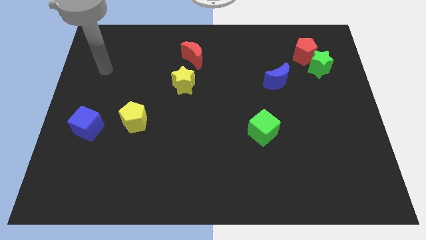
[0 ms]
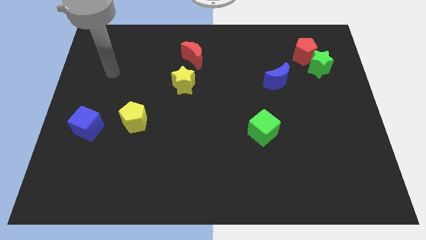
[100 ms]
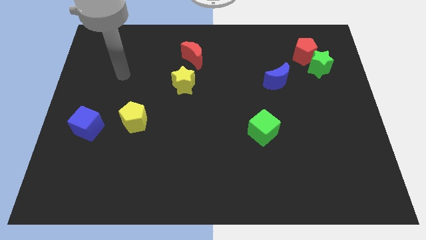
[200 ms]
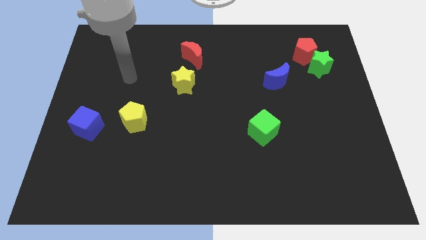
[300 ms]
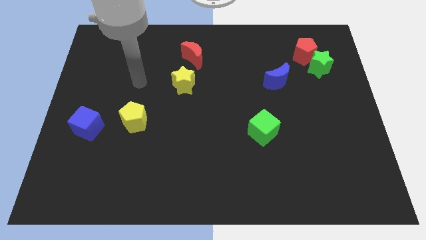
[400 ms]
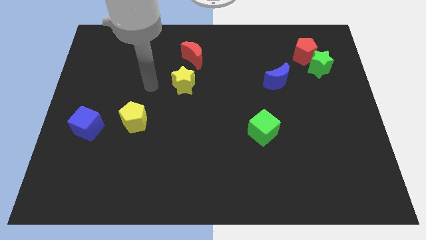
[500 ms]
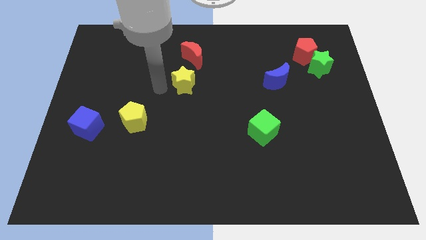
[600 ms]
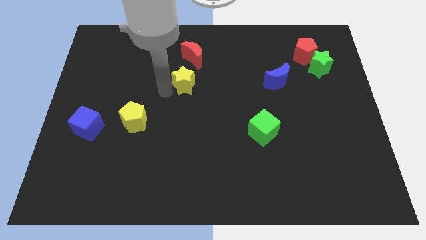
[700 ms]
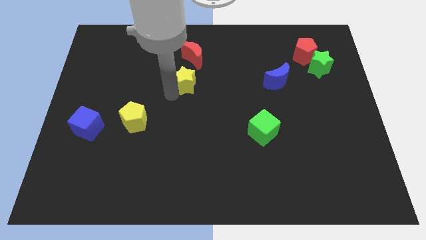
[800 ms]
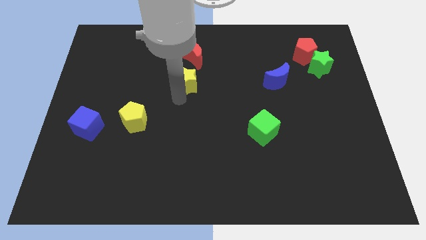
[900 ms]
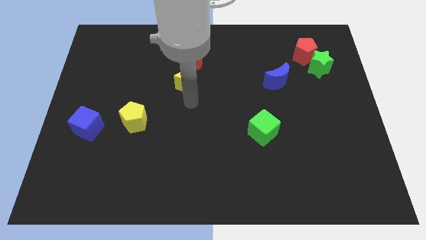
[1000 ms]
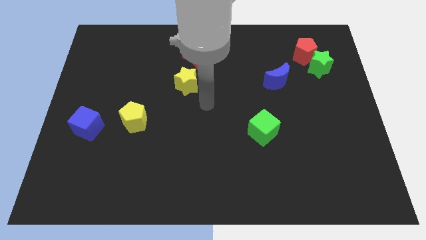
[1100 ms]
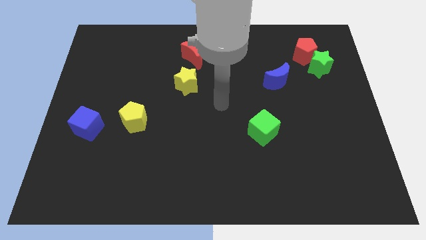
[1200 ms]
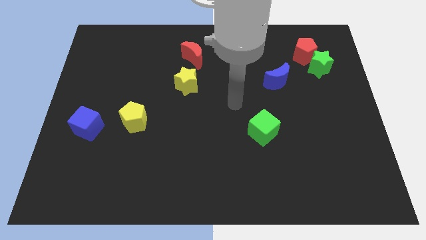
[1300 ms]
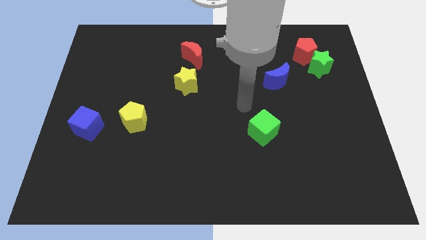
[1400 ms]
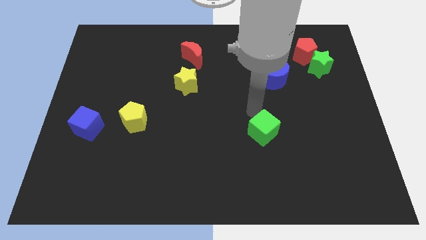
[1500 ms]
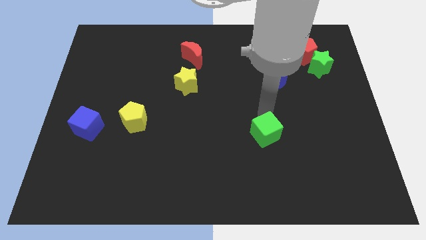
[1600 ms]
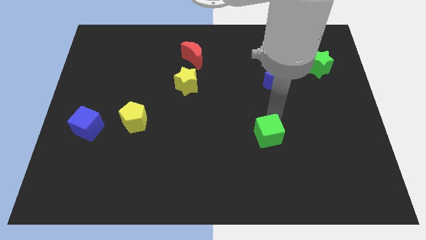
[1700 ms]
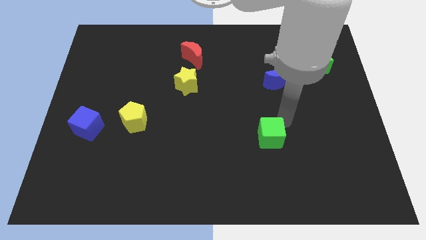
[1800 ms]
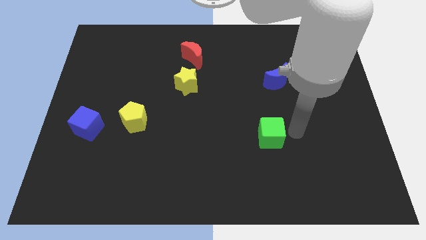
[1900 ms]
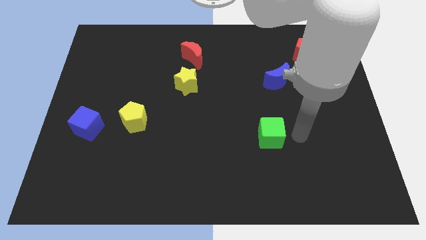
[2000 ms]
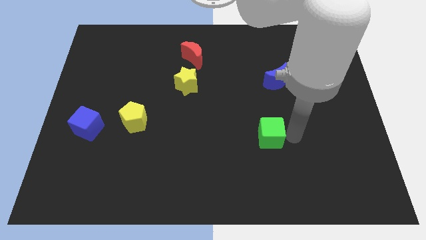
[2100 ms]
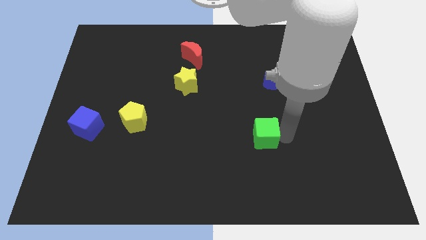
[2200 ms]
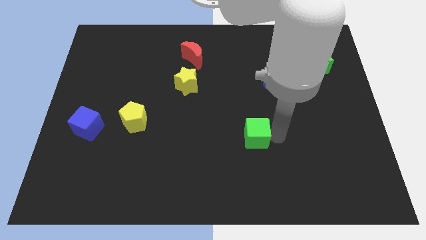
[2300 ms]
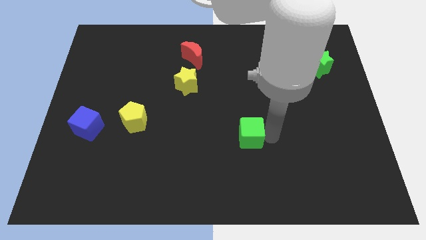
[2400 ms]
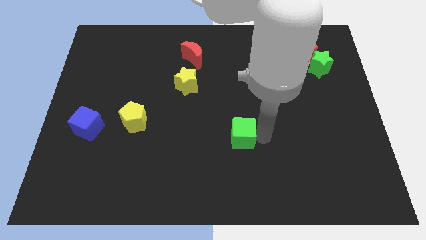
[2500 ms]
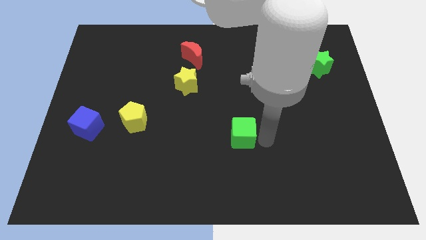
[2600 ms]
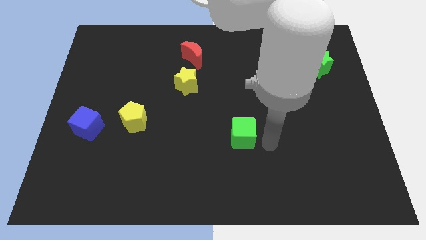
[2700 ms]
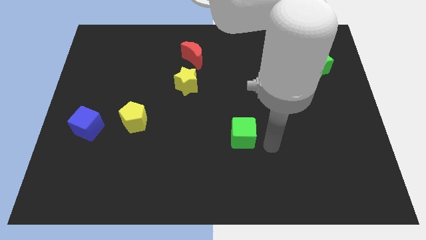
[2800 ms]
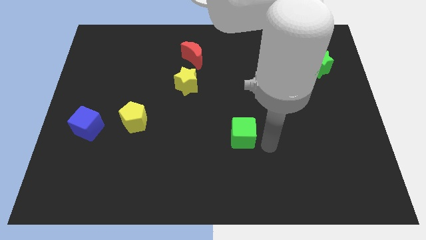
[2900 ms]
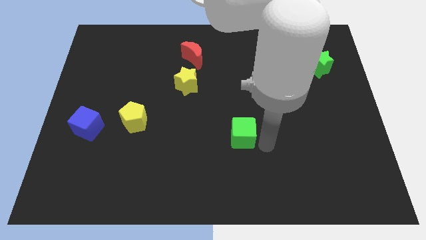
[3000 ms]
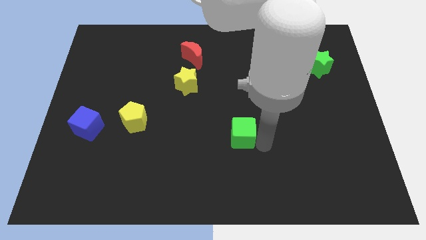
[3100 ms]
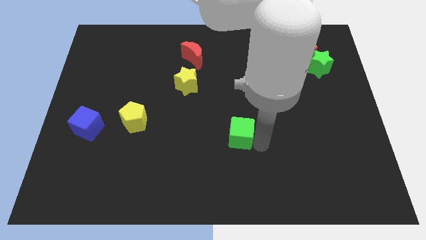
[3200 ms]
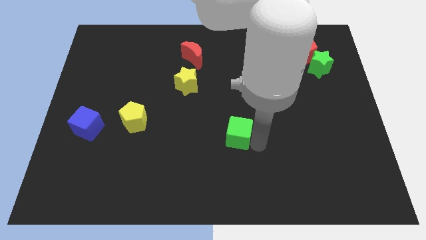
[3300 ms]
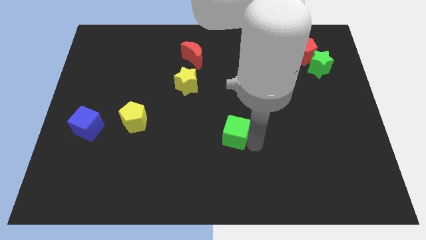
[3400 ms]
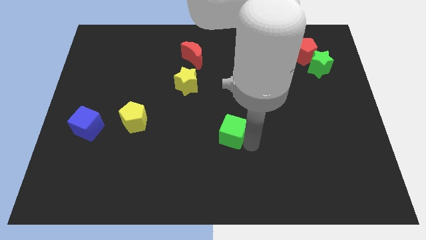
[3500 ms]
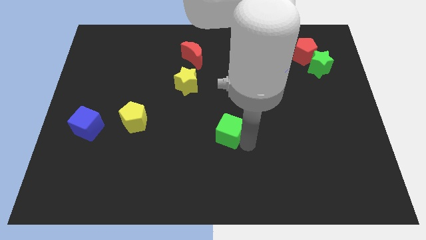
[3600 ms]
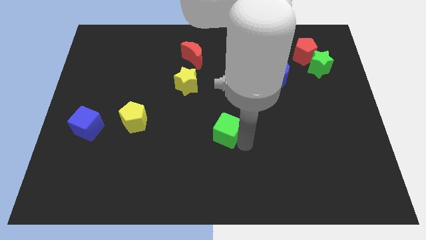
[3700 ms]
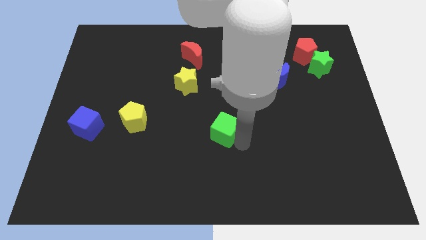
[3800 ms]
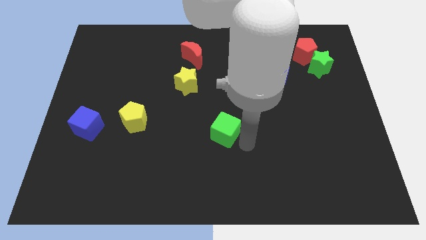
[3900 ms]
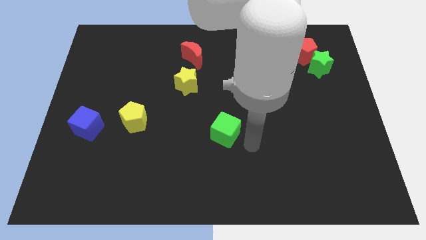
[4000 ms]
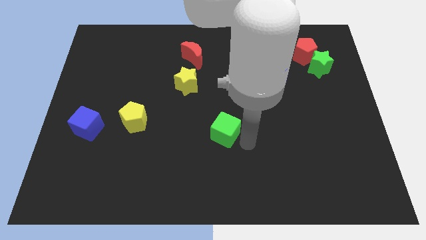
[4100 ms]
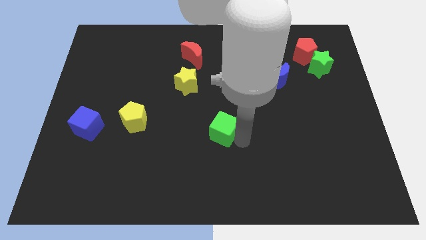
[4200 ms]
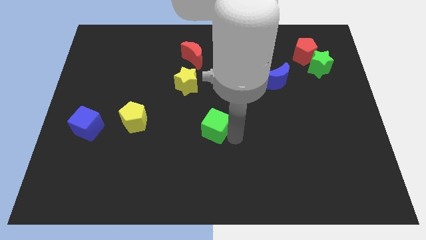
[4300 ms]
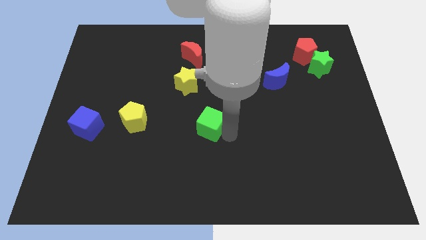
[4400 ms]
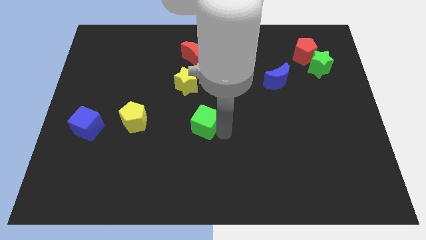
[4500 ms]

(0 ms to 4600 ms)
push the green cube just right of the yellow pentagon

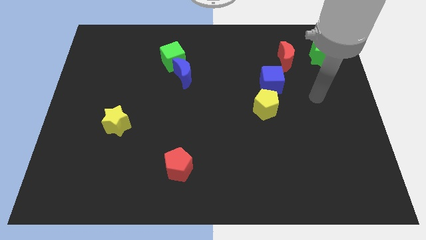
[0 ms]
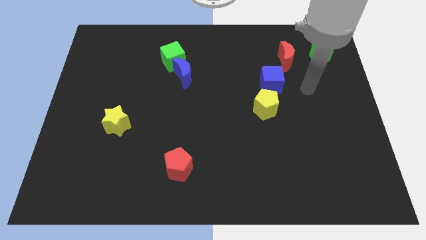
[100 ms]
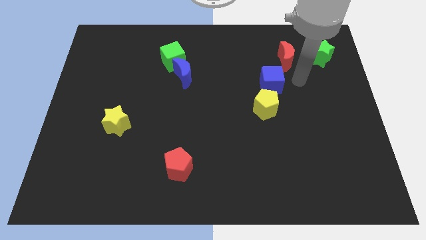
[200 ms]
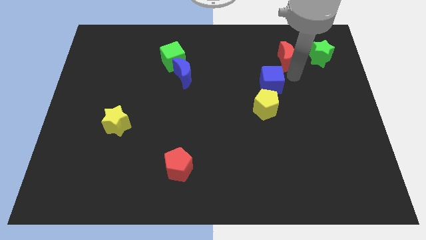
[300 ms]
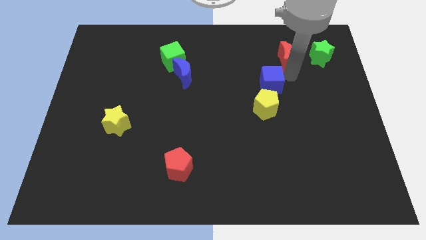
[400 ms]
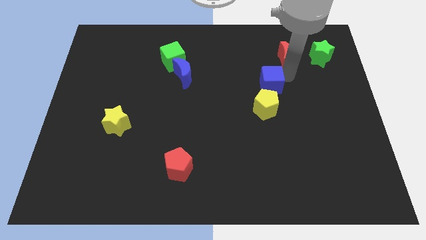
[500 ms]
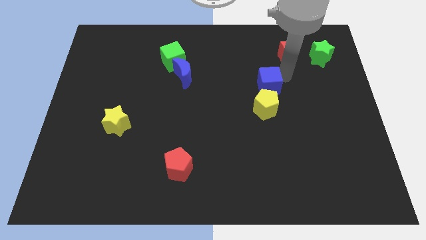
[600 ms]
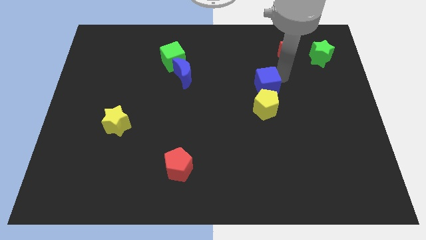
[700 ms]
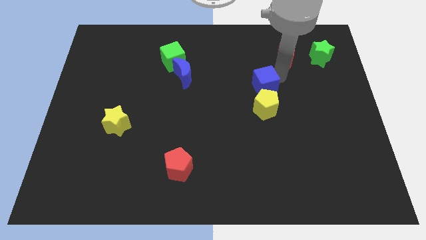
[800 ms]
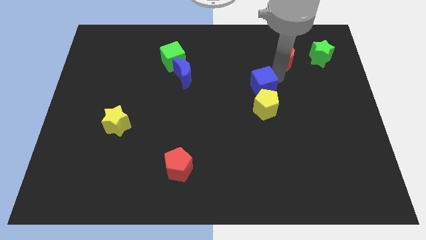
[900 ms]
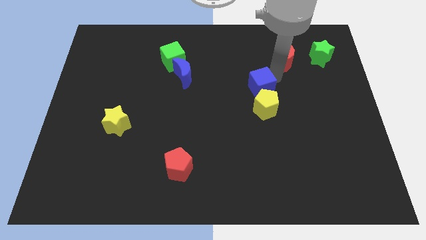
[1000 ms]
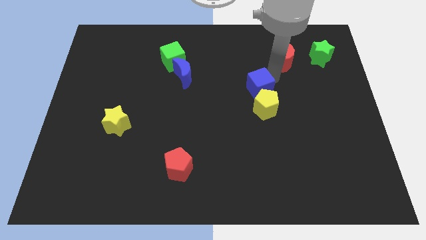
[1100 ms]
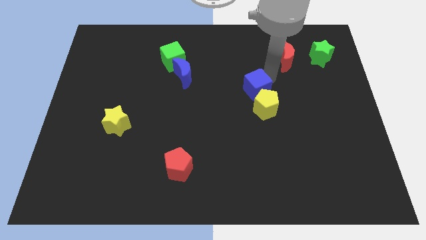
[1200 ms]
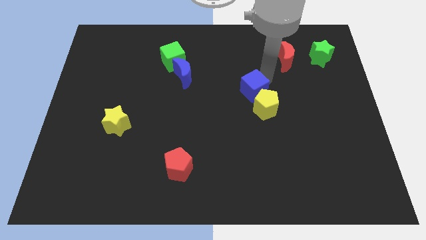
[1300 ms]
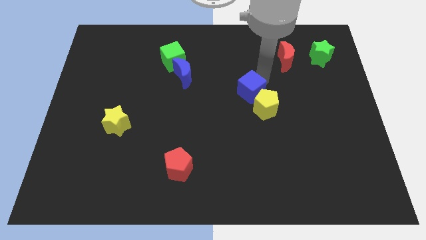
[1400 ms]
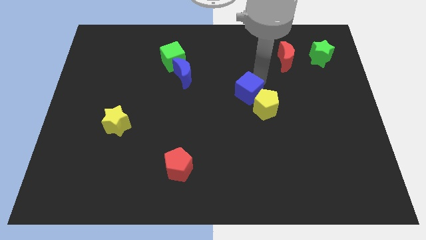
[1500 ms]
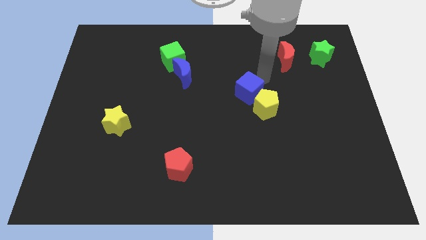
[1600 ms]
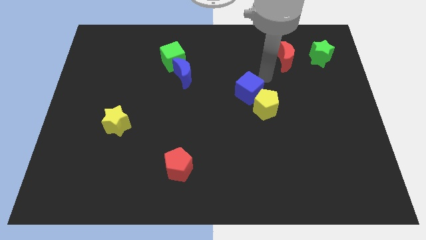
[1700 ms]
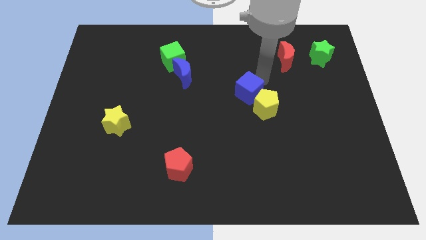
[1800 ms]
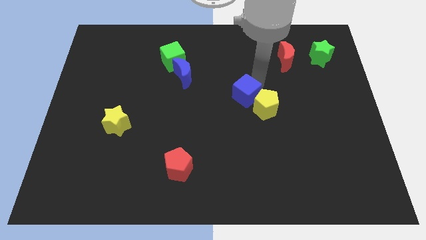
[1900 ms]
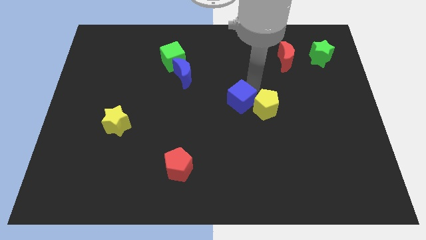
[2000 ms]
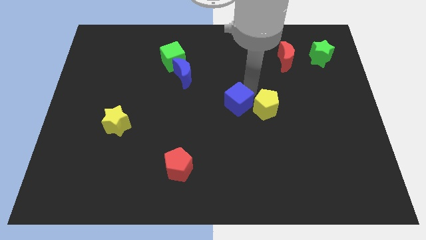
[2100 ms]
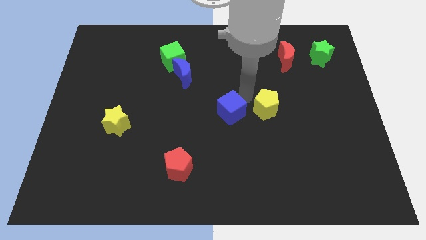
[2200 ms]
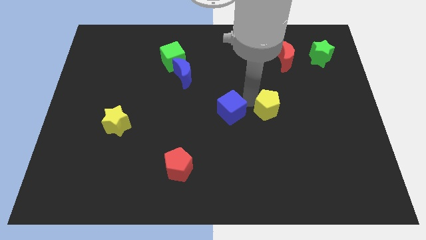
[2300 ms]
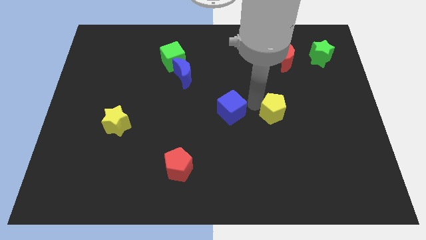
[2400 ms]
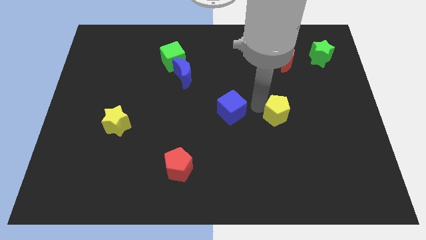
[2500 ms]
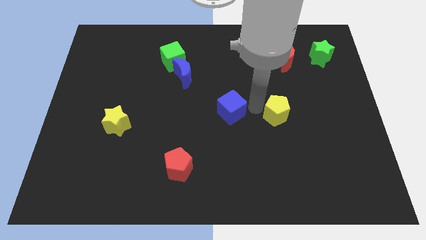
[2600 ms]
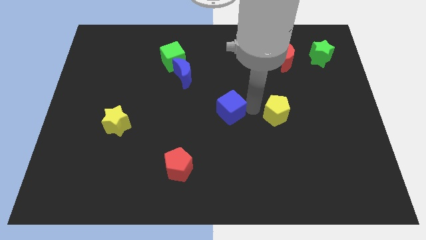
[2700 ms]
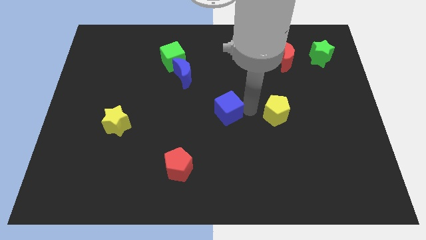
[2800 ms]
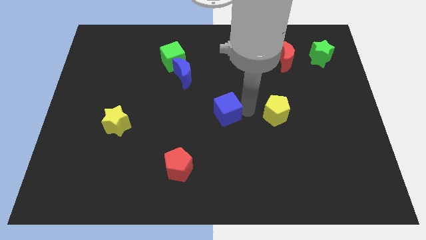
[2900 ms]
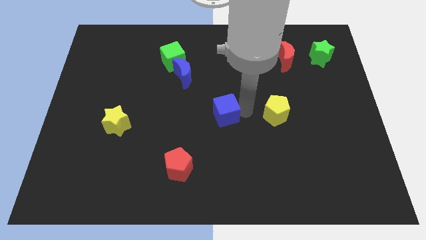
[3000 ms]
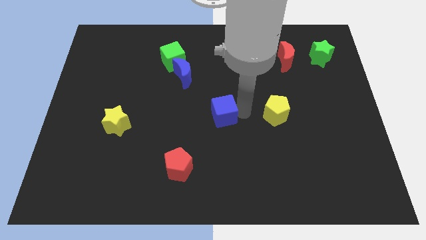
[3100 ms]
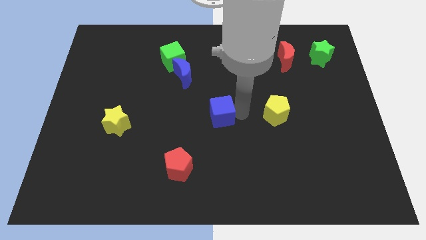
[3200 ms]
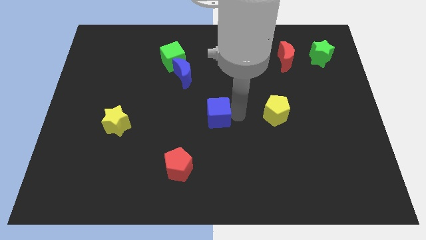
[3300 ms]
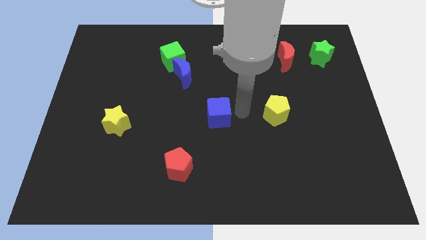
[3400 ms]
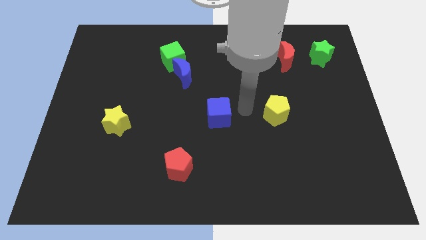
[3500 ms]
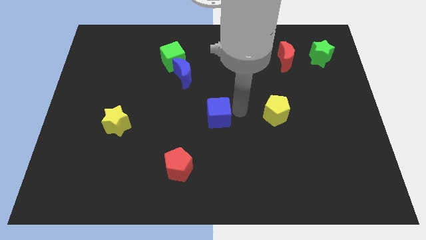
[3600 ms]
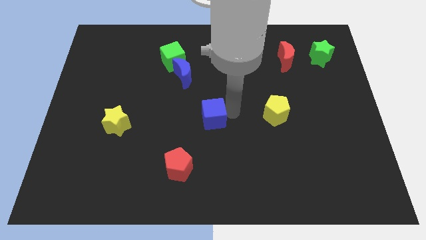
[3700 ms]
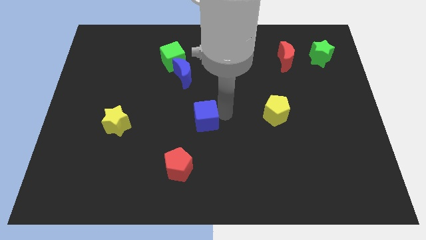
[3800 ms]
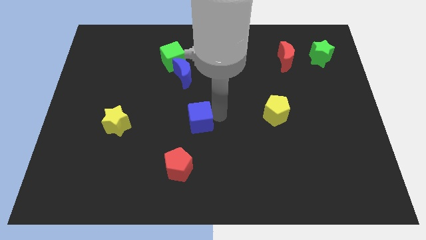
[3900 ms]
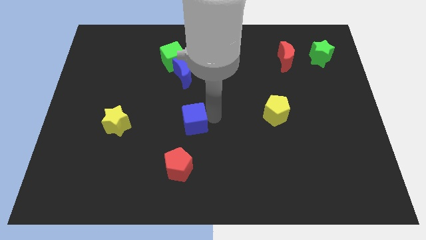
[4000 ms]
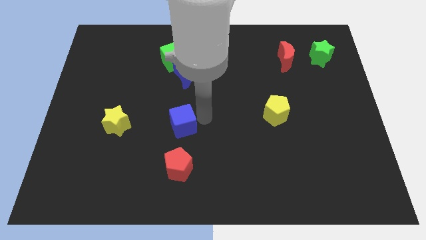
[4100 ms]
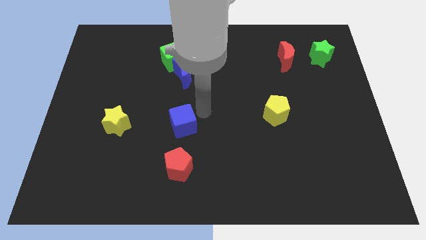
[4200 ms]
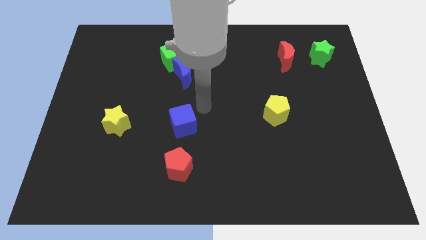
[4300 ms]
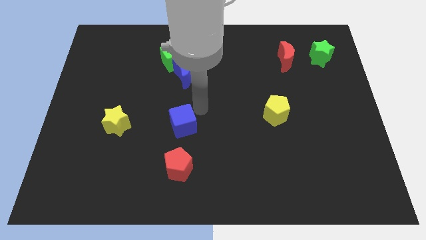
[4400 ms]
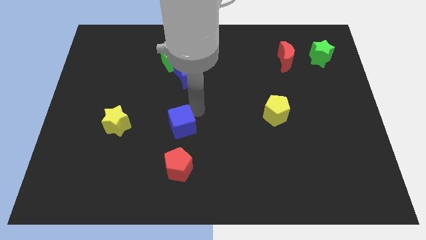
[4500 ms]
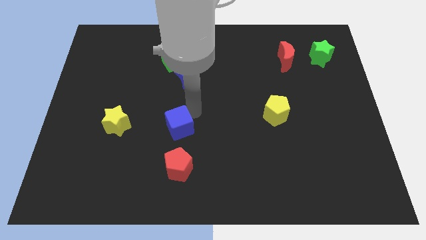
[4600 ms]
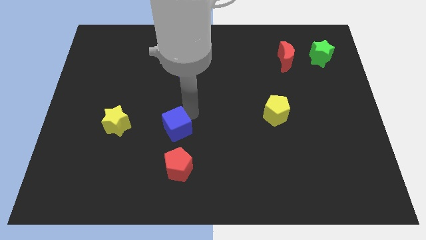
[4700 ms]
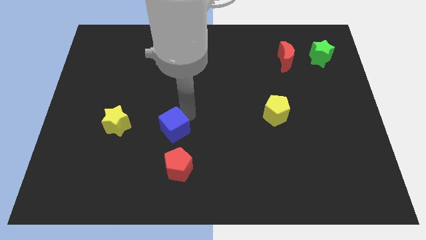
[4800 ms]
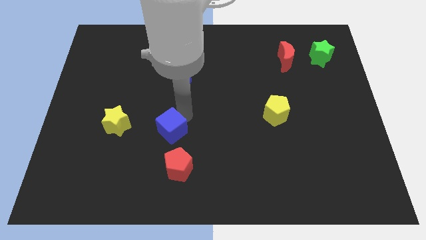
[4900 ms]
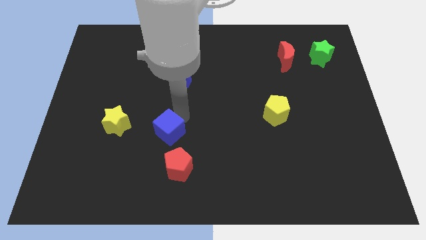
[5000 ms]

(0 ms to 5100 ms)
push the blue cube diagonally up and to the left of the red pentagon
